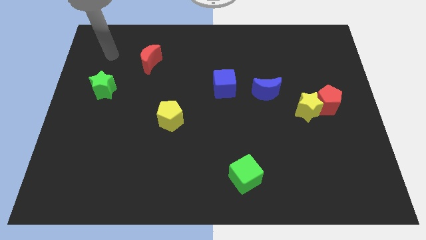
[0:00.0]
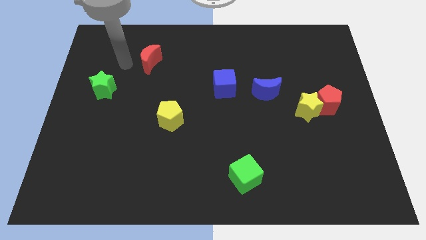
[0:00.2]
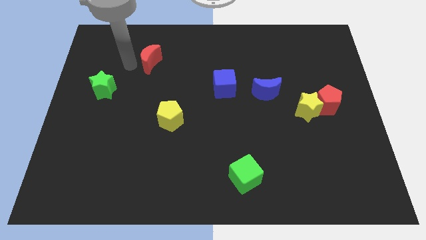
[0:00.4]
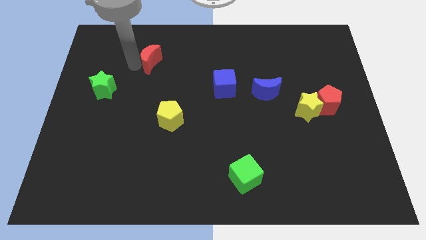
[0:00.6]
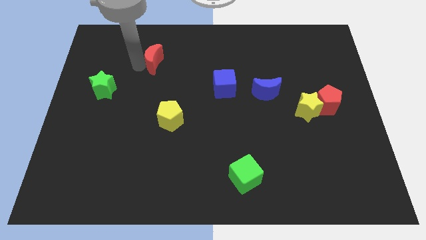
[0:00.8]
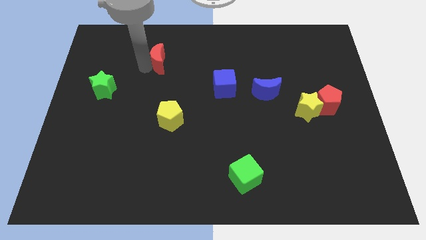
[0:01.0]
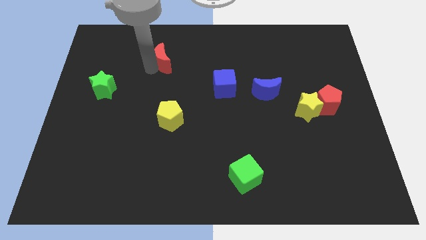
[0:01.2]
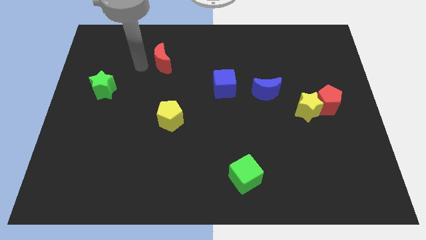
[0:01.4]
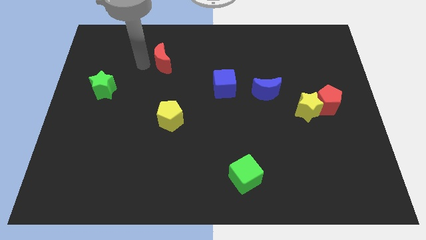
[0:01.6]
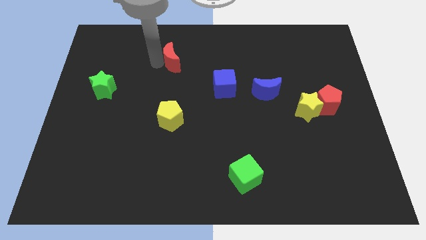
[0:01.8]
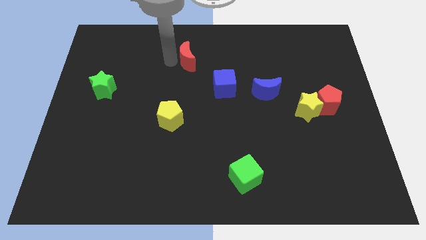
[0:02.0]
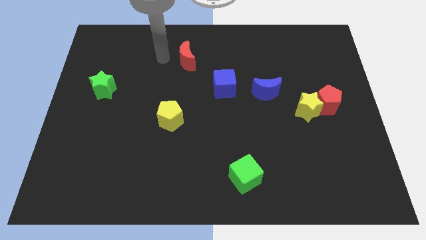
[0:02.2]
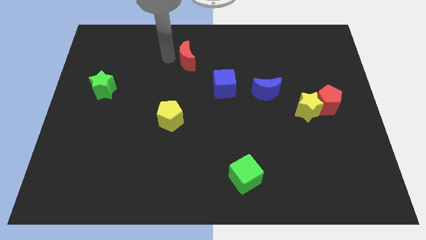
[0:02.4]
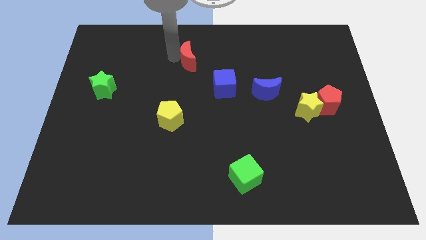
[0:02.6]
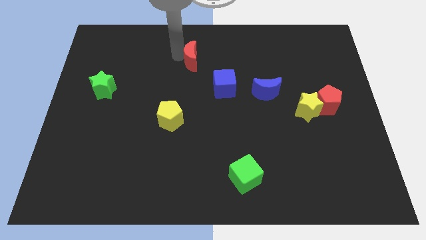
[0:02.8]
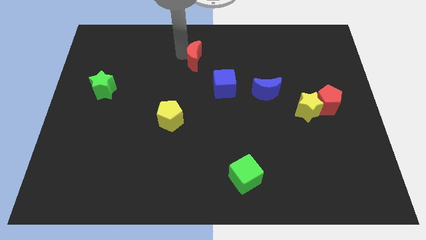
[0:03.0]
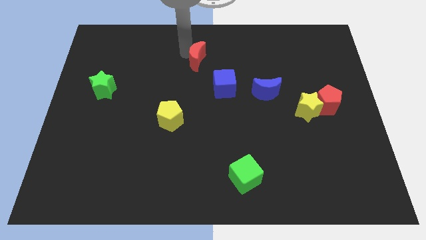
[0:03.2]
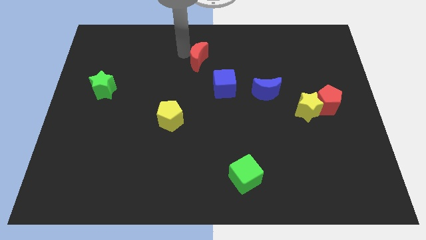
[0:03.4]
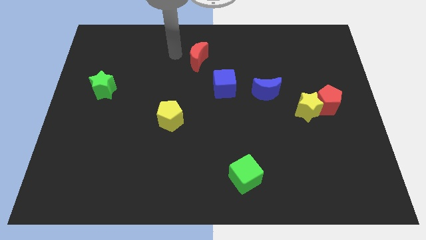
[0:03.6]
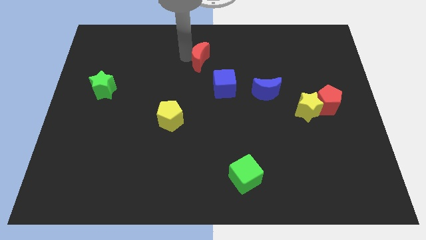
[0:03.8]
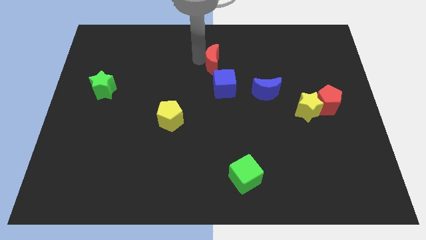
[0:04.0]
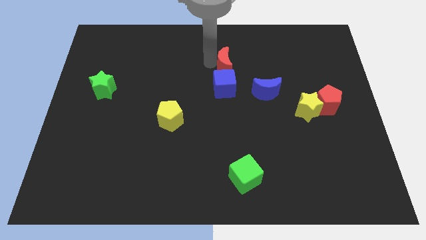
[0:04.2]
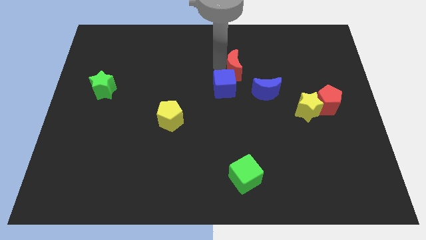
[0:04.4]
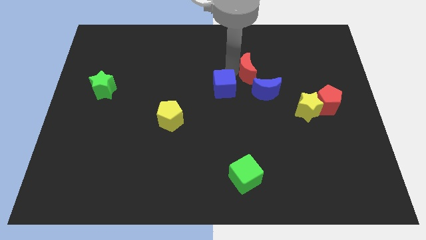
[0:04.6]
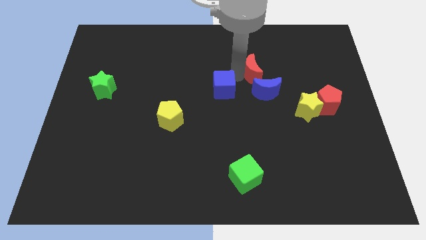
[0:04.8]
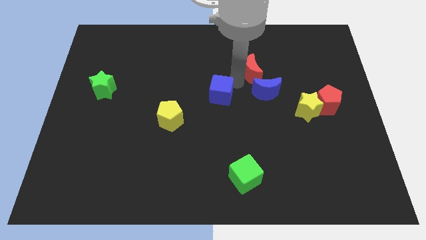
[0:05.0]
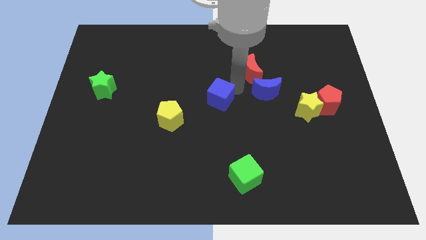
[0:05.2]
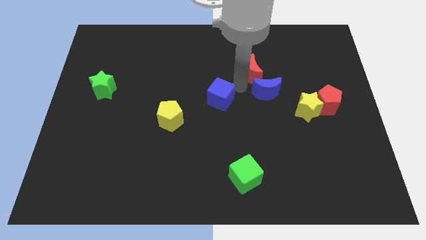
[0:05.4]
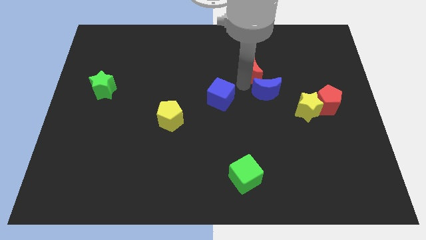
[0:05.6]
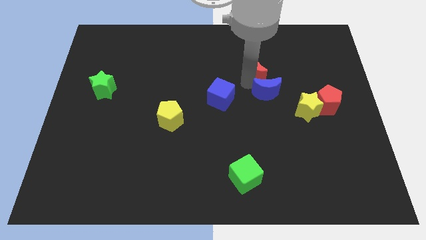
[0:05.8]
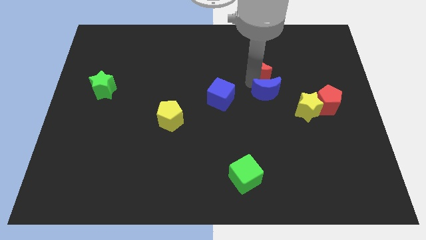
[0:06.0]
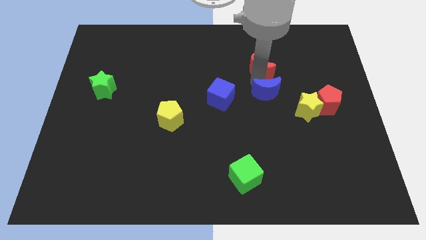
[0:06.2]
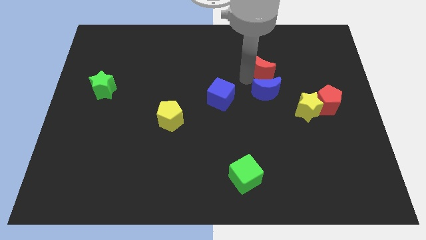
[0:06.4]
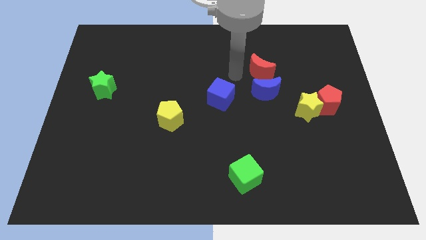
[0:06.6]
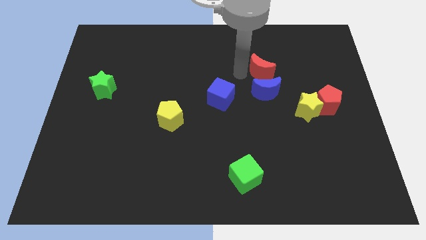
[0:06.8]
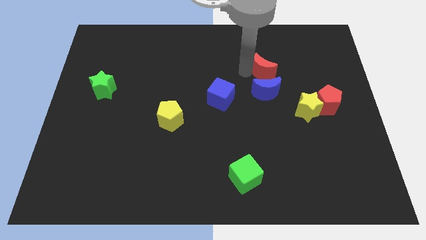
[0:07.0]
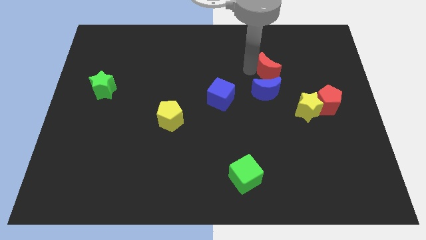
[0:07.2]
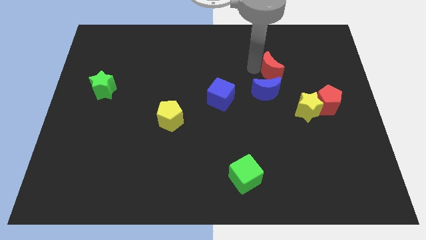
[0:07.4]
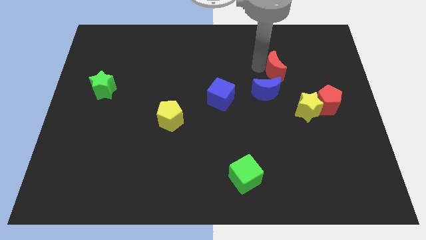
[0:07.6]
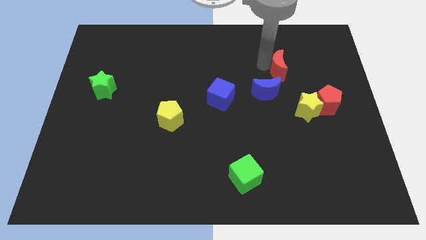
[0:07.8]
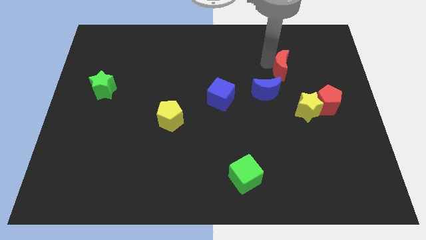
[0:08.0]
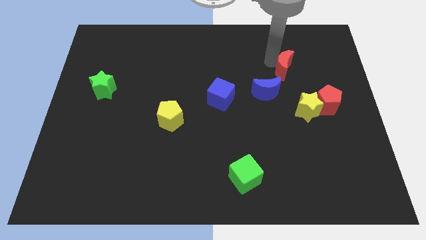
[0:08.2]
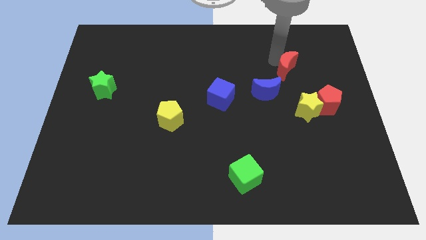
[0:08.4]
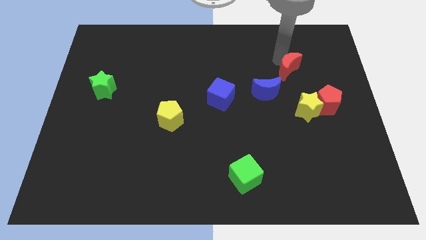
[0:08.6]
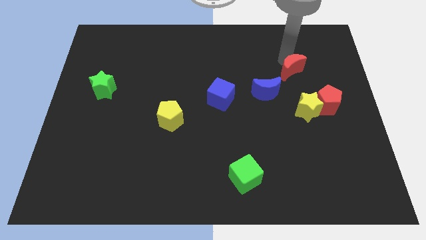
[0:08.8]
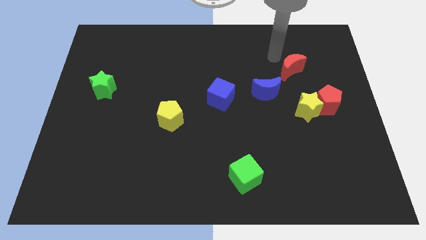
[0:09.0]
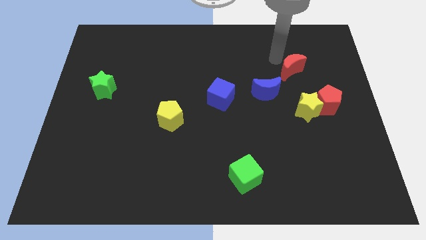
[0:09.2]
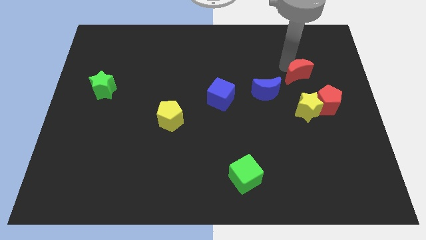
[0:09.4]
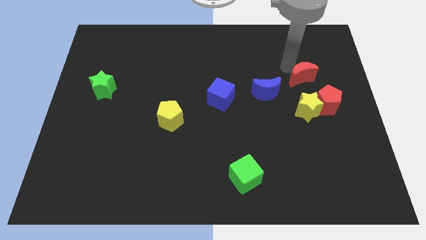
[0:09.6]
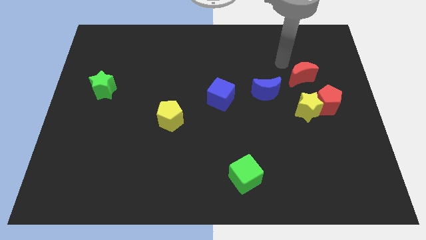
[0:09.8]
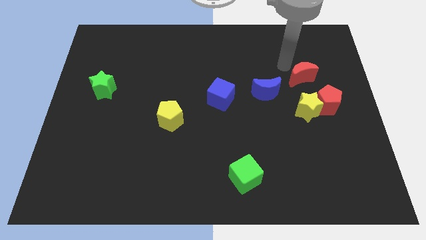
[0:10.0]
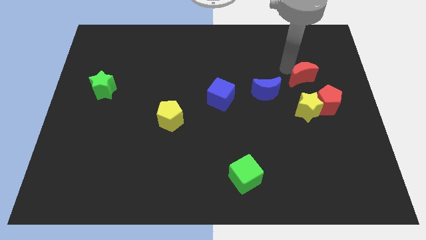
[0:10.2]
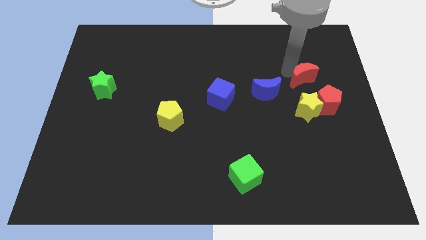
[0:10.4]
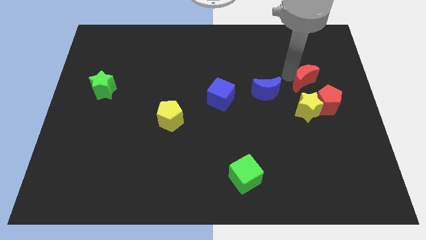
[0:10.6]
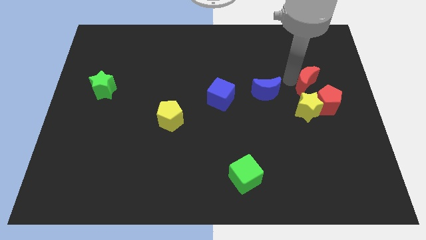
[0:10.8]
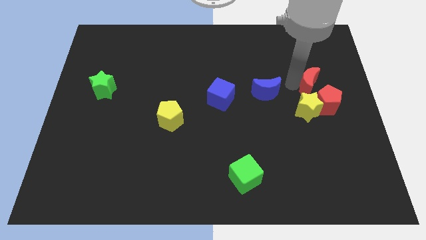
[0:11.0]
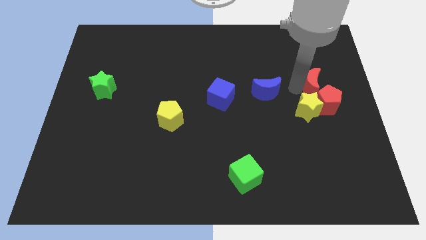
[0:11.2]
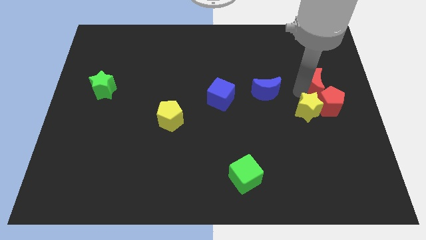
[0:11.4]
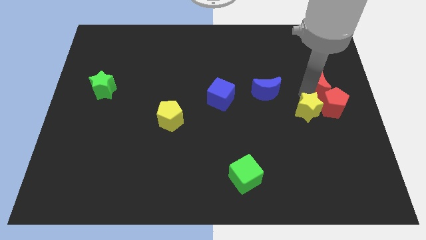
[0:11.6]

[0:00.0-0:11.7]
put the red moon to the right side of the board
